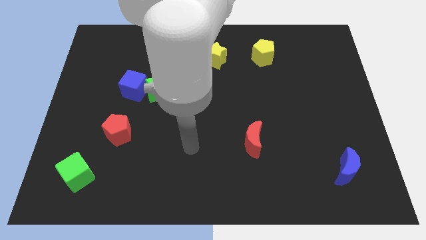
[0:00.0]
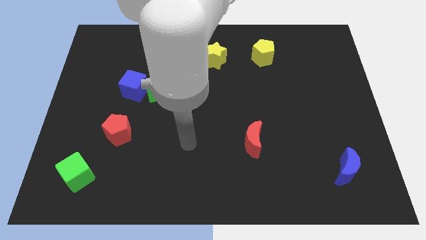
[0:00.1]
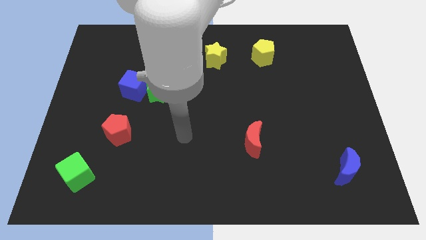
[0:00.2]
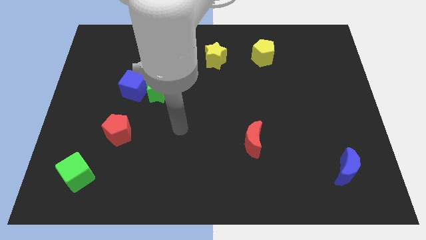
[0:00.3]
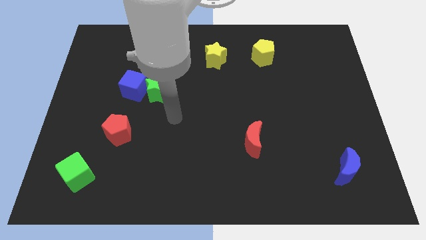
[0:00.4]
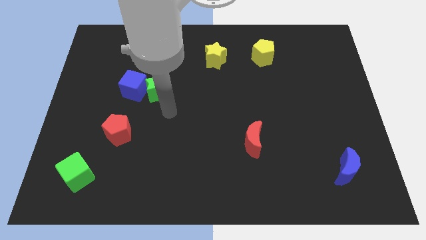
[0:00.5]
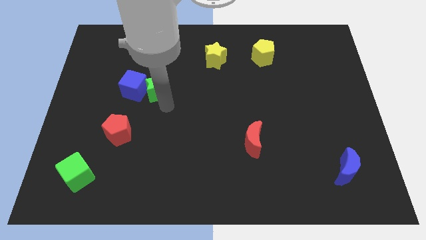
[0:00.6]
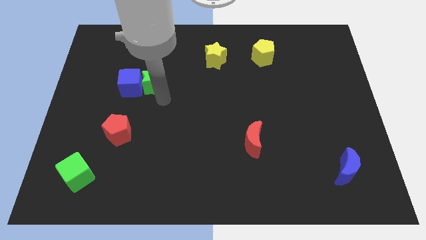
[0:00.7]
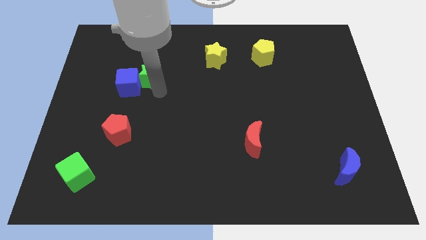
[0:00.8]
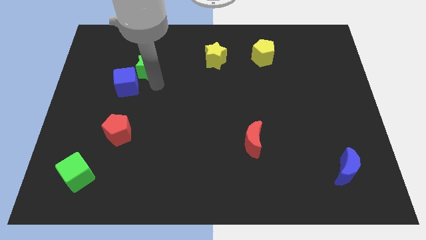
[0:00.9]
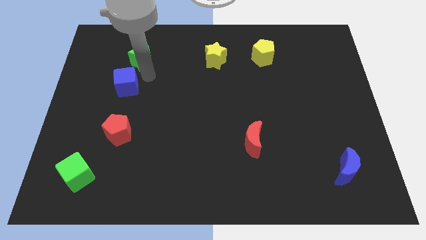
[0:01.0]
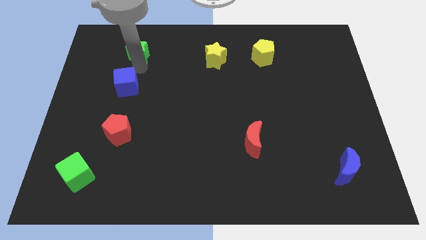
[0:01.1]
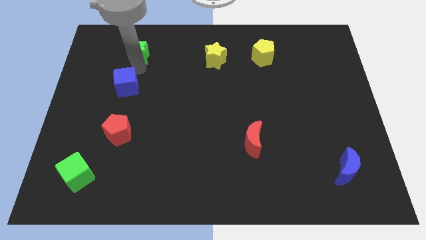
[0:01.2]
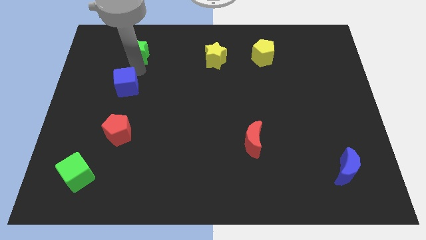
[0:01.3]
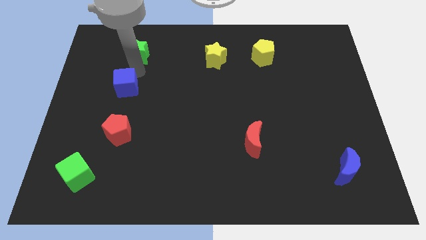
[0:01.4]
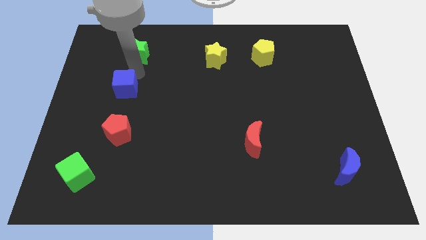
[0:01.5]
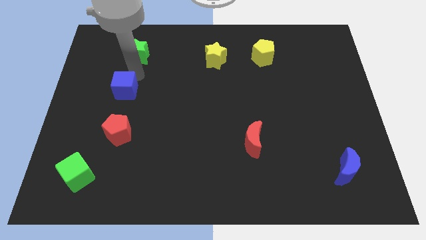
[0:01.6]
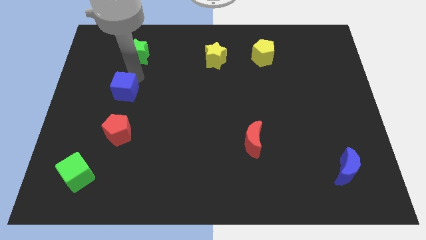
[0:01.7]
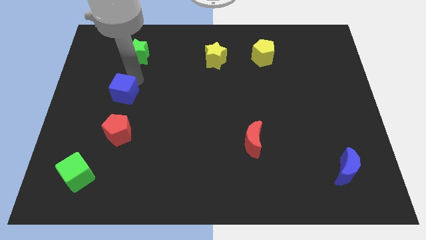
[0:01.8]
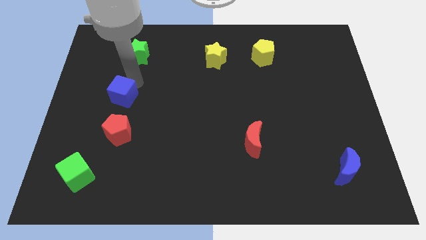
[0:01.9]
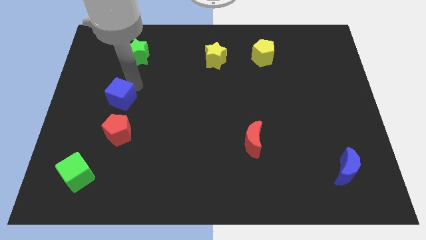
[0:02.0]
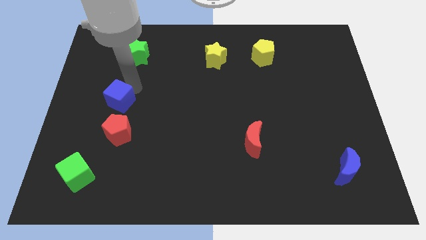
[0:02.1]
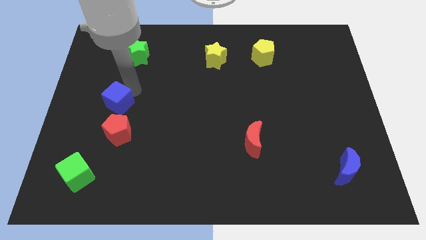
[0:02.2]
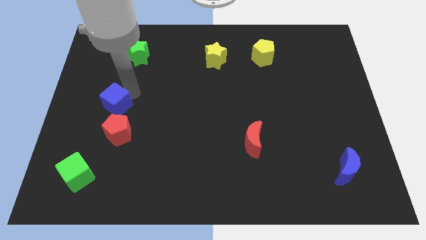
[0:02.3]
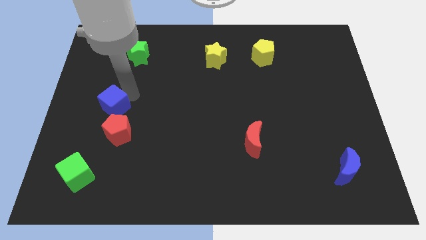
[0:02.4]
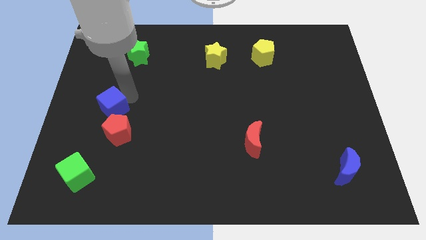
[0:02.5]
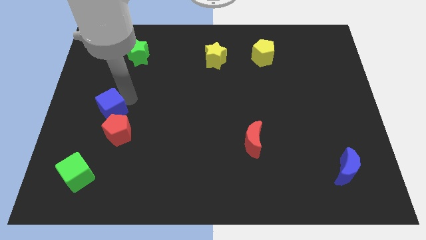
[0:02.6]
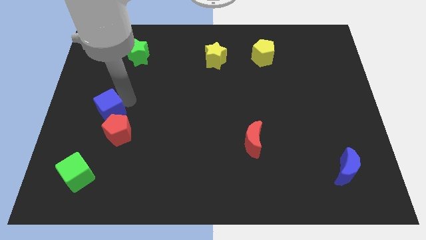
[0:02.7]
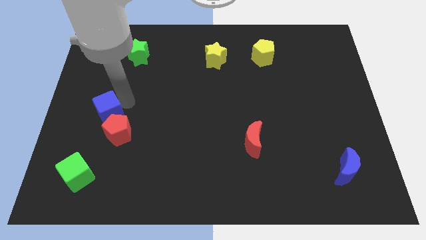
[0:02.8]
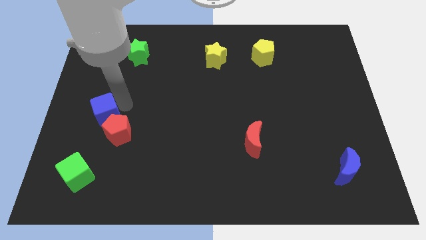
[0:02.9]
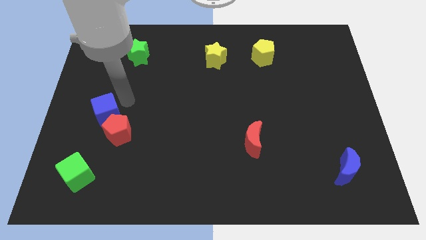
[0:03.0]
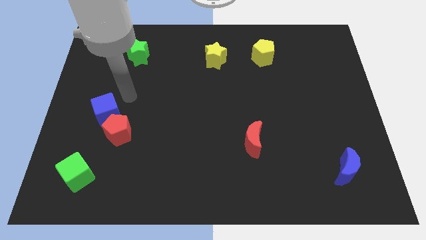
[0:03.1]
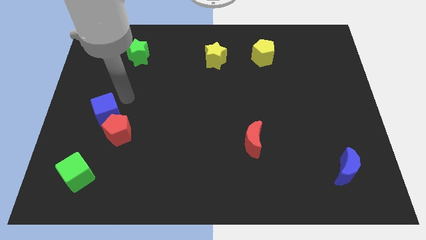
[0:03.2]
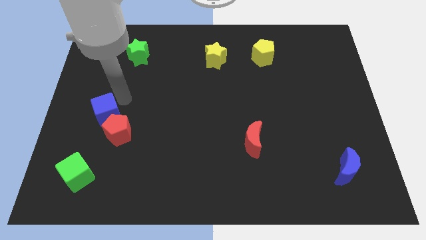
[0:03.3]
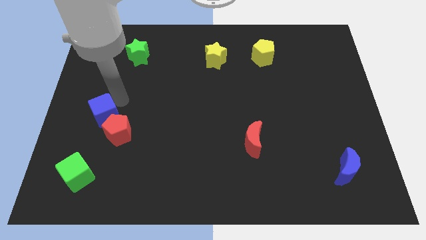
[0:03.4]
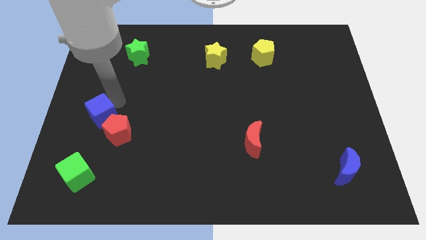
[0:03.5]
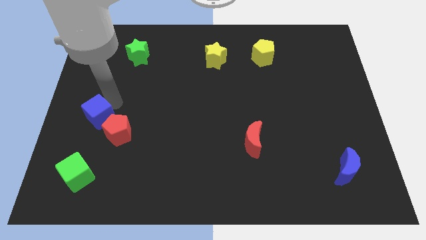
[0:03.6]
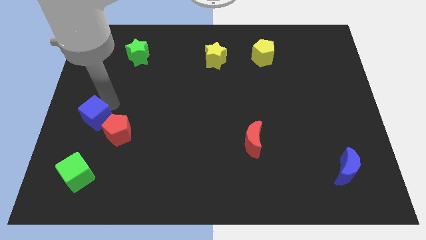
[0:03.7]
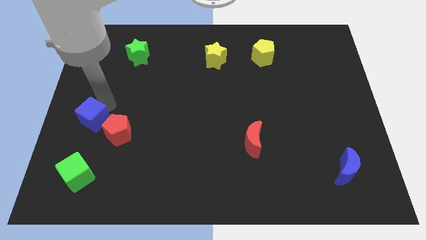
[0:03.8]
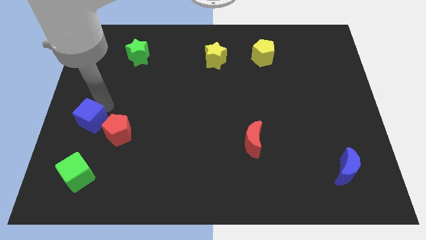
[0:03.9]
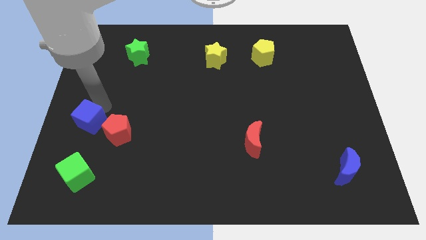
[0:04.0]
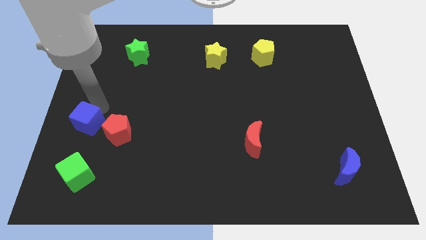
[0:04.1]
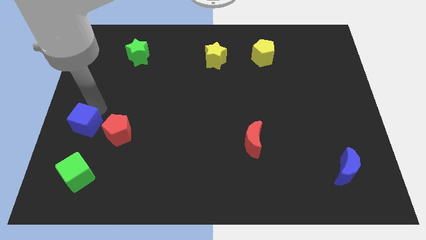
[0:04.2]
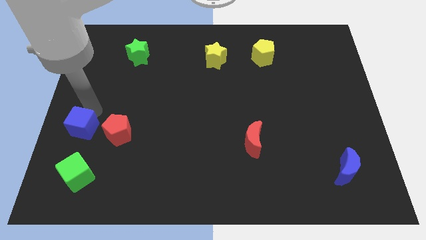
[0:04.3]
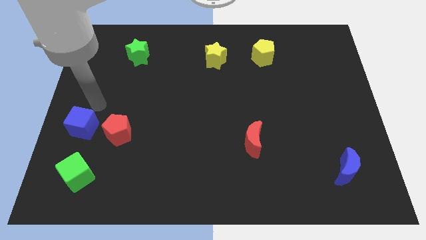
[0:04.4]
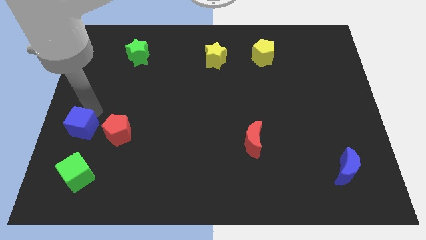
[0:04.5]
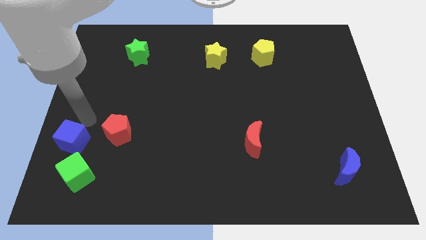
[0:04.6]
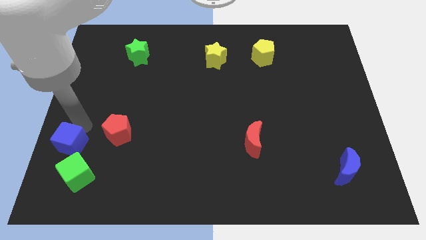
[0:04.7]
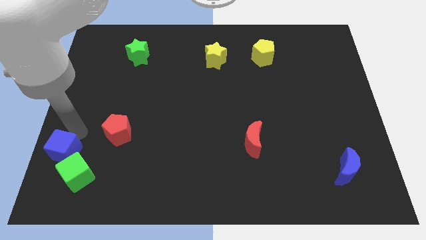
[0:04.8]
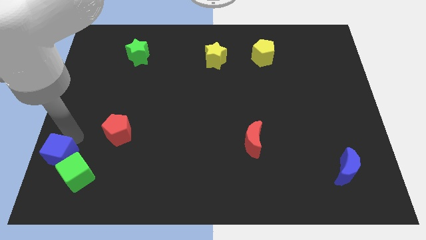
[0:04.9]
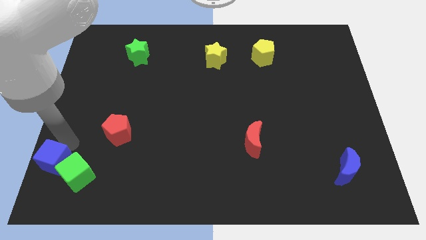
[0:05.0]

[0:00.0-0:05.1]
move the blue cube to the bottom left

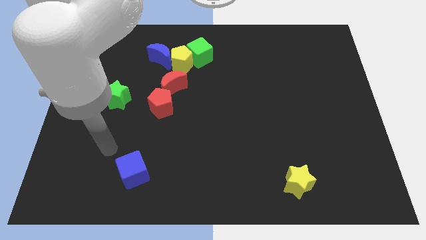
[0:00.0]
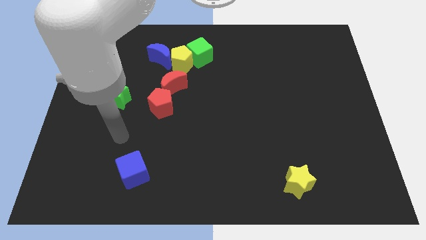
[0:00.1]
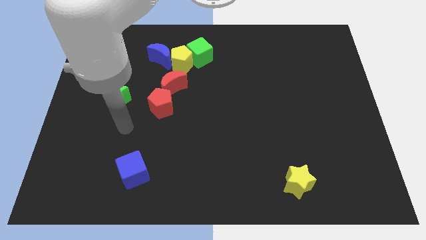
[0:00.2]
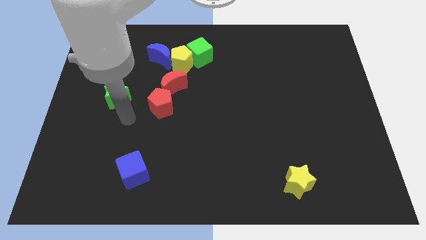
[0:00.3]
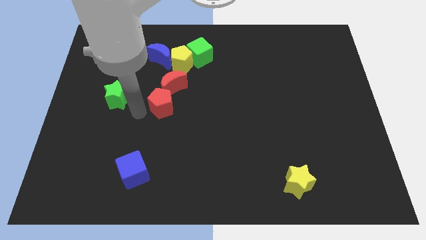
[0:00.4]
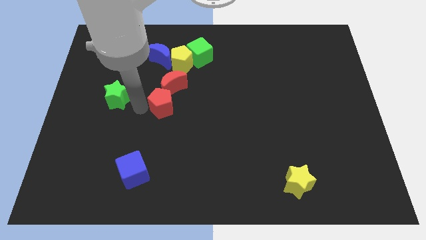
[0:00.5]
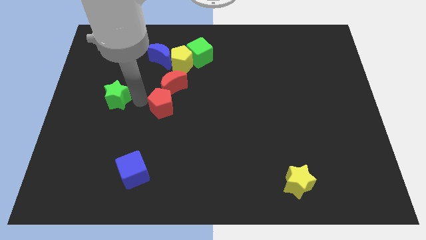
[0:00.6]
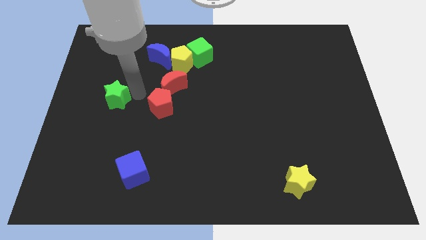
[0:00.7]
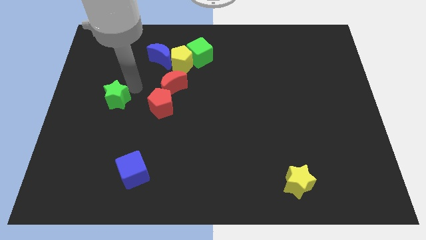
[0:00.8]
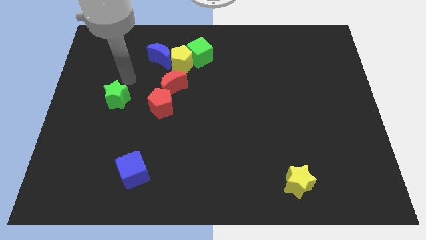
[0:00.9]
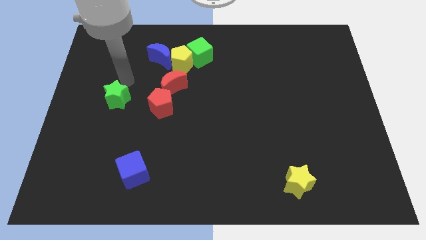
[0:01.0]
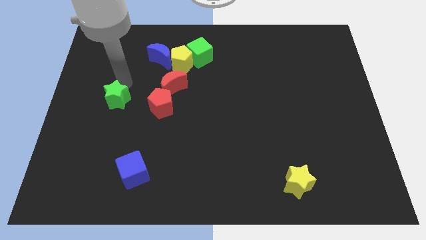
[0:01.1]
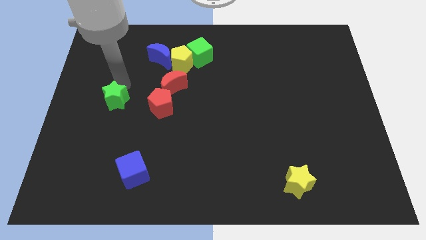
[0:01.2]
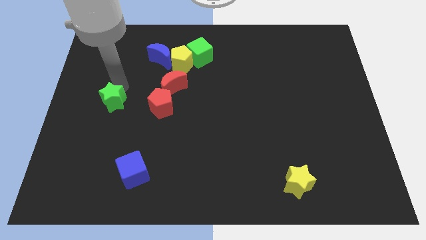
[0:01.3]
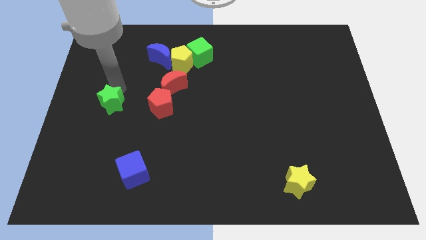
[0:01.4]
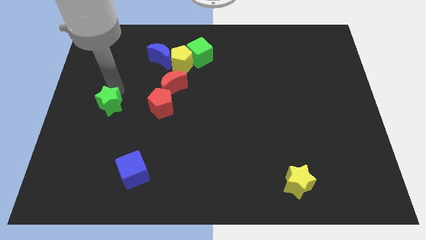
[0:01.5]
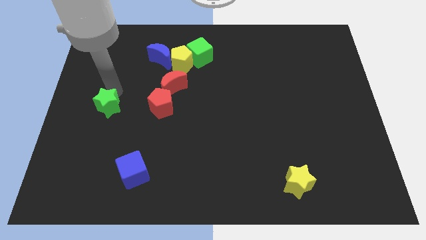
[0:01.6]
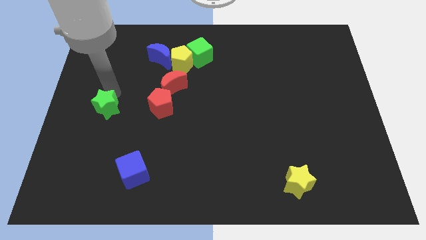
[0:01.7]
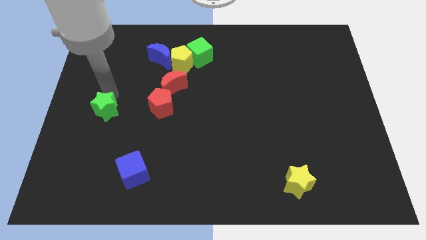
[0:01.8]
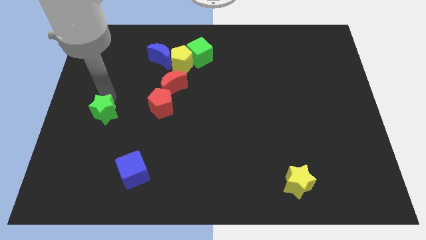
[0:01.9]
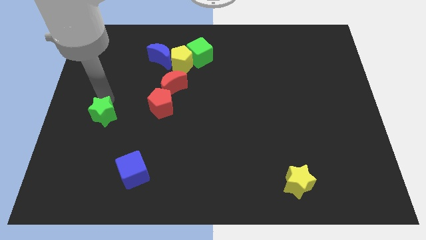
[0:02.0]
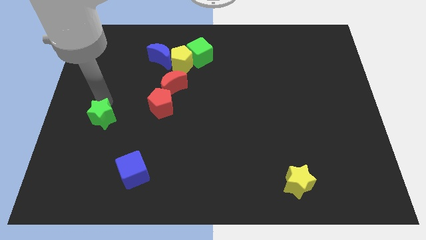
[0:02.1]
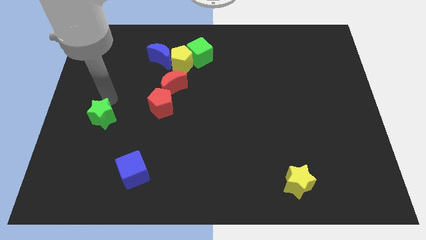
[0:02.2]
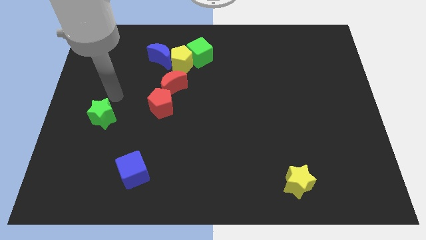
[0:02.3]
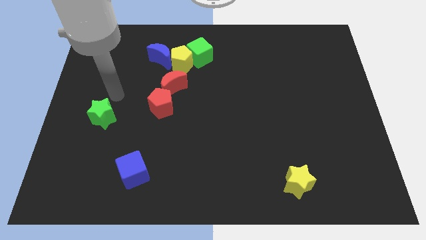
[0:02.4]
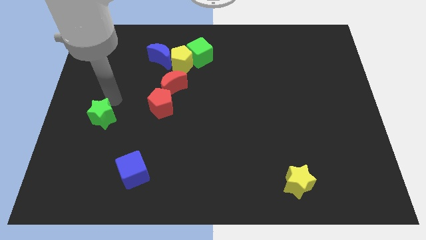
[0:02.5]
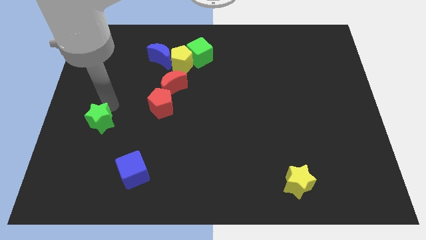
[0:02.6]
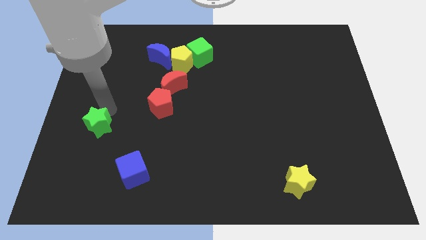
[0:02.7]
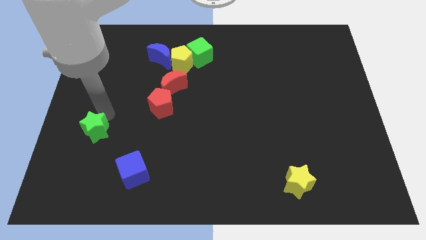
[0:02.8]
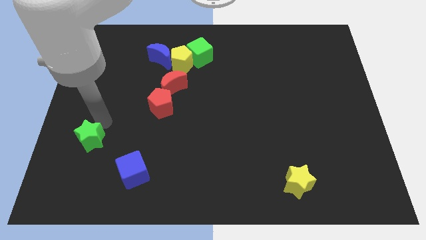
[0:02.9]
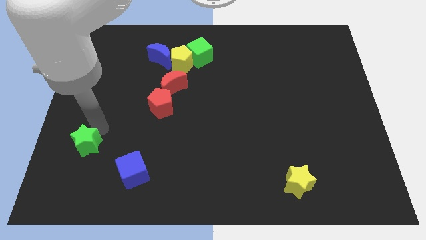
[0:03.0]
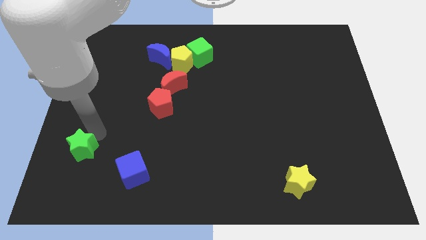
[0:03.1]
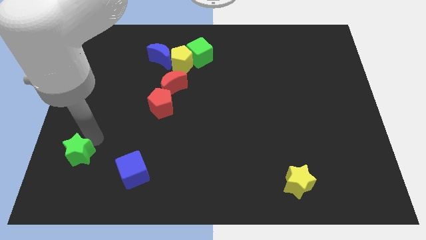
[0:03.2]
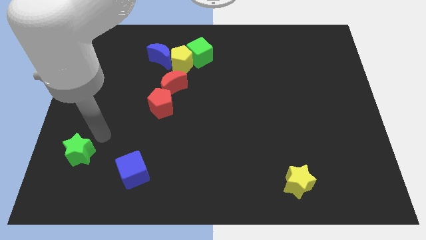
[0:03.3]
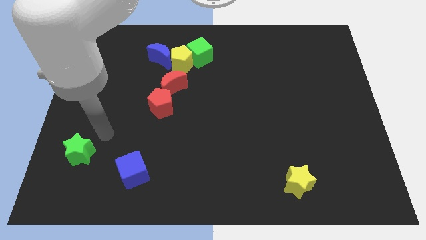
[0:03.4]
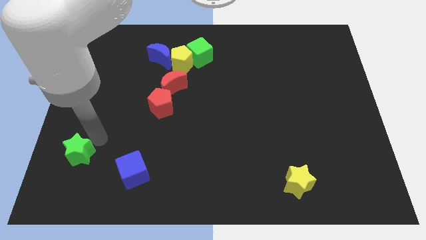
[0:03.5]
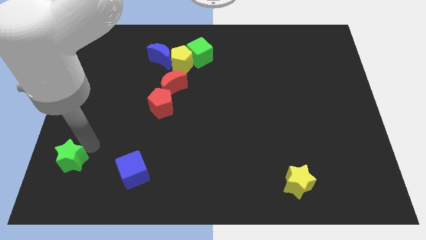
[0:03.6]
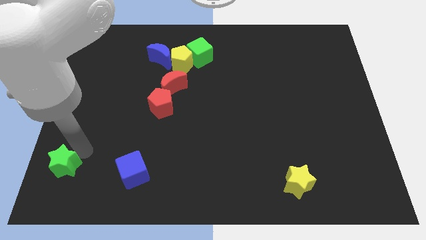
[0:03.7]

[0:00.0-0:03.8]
put the green star to the bottom left
